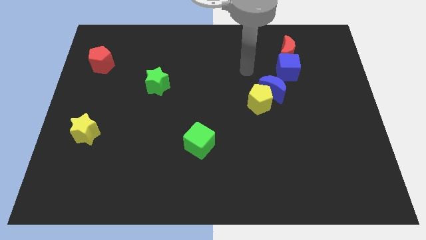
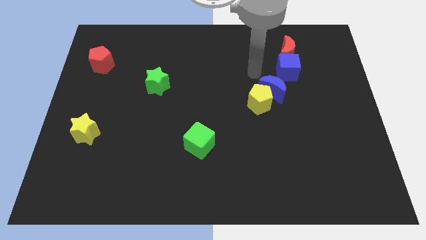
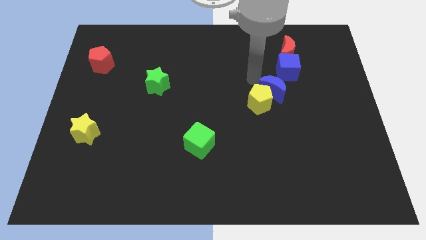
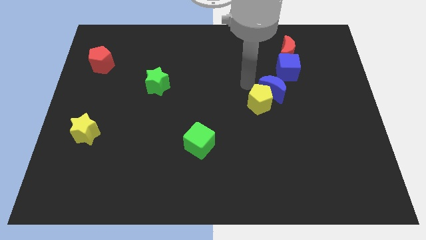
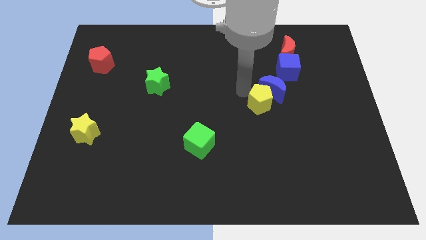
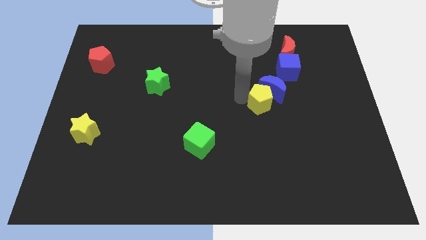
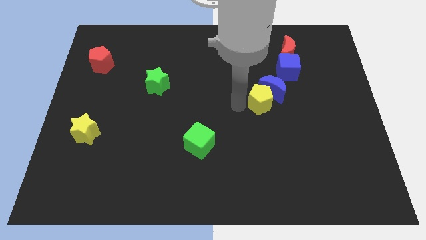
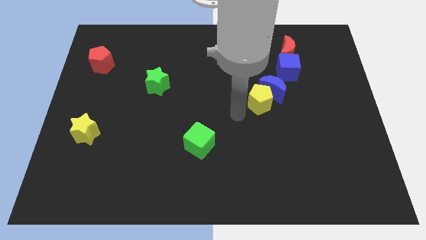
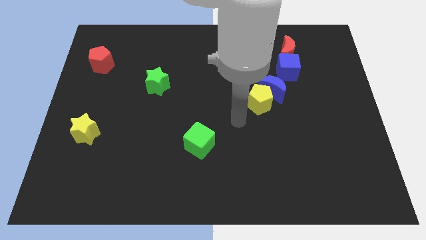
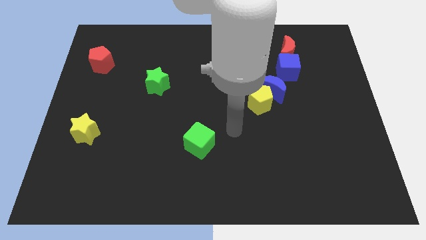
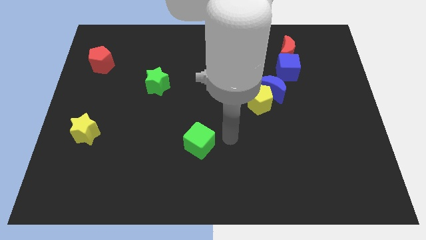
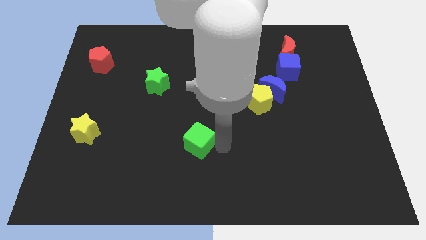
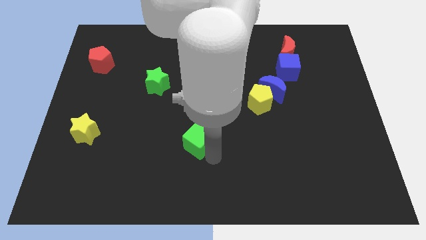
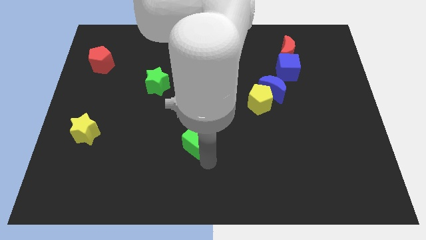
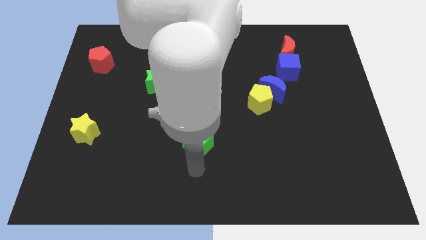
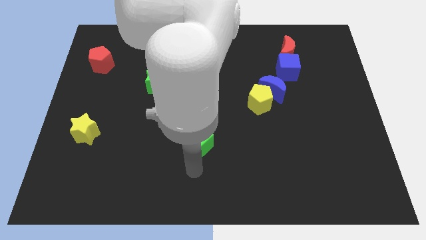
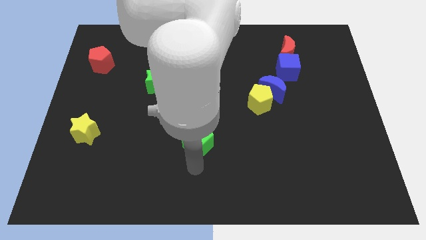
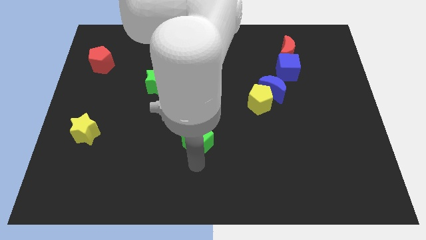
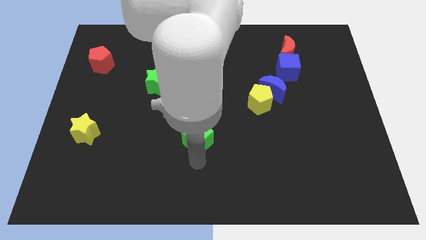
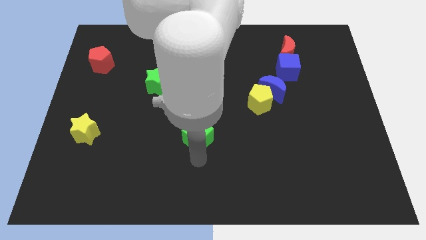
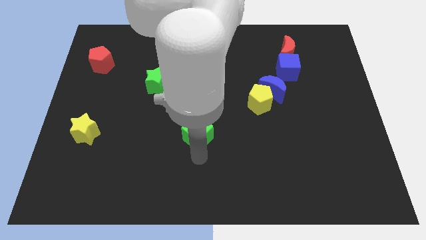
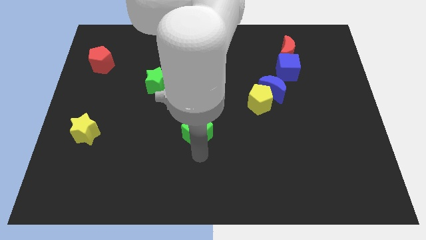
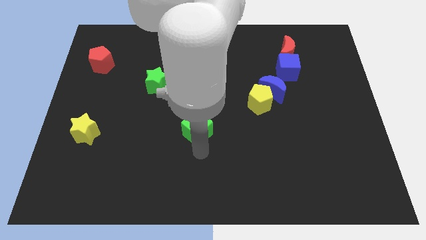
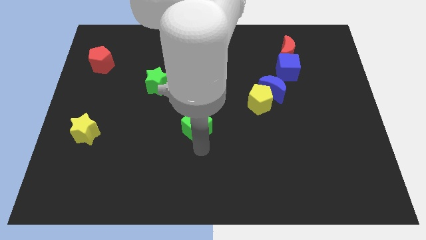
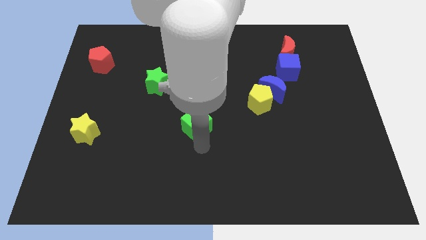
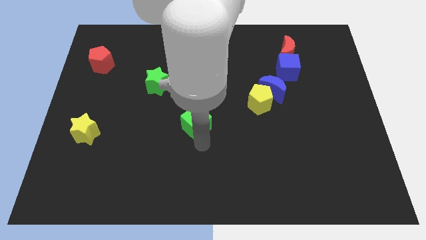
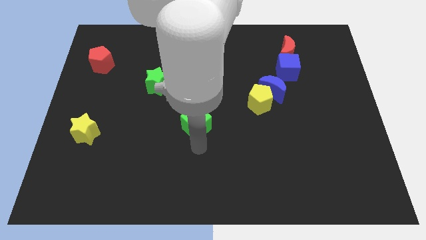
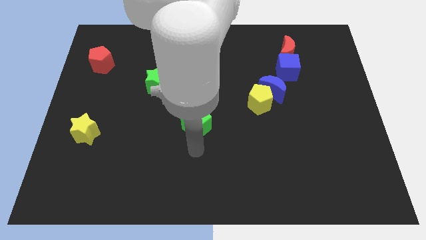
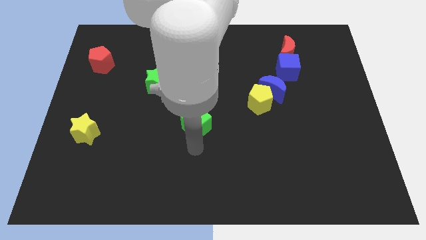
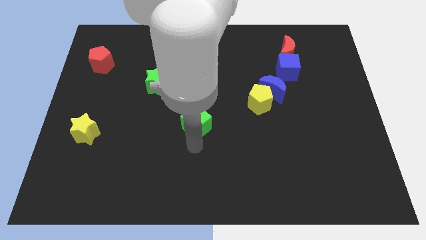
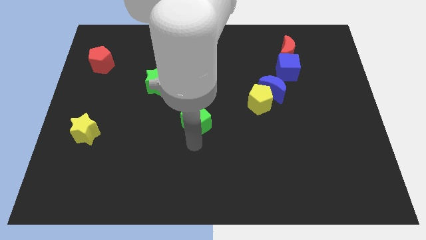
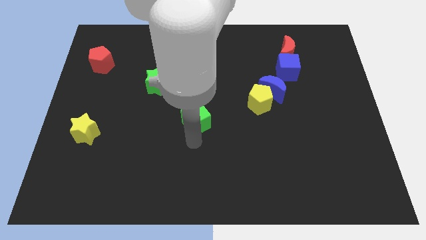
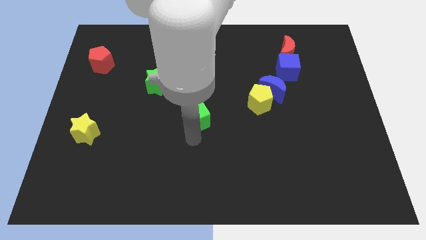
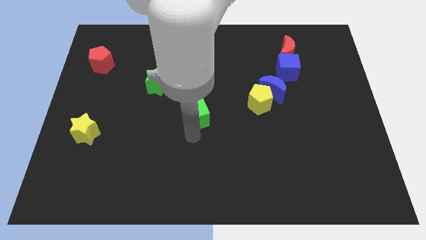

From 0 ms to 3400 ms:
slide the green cube upwards slightly

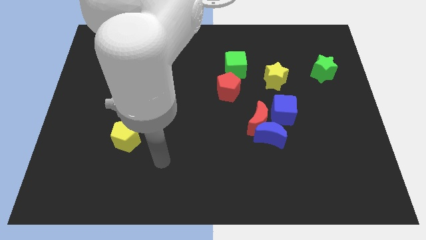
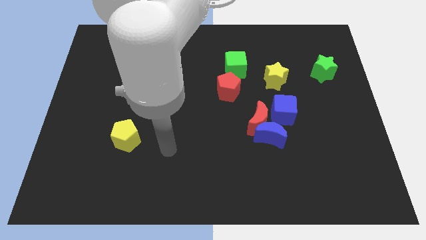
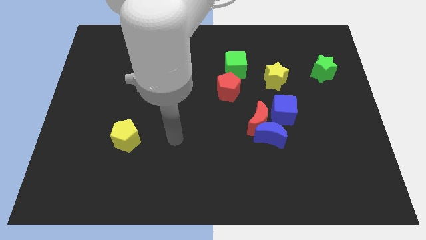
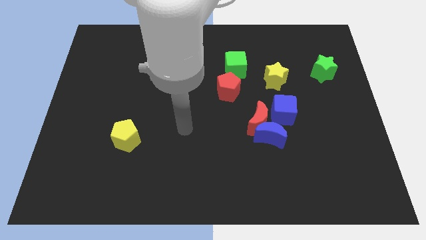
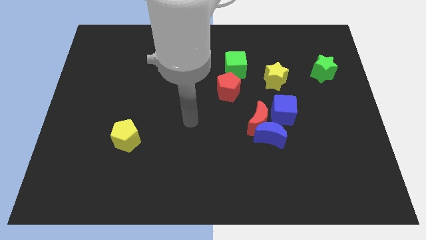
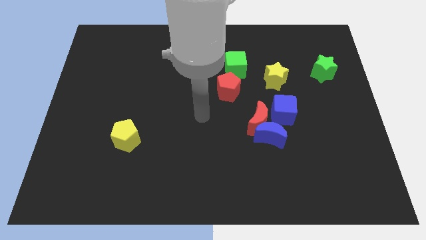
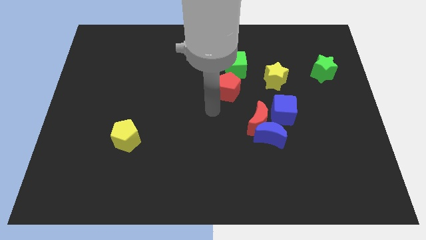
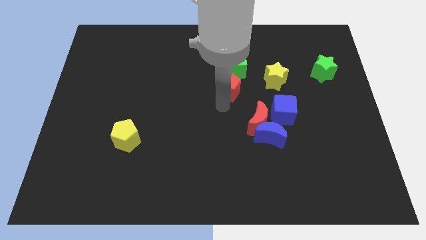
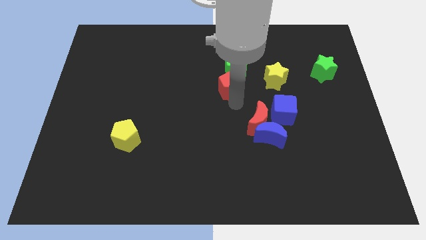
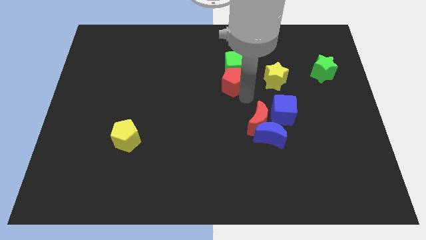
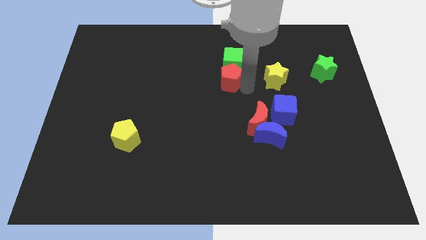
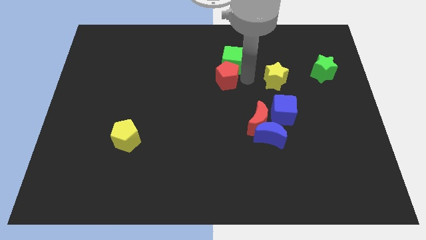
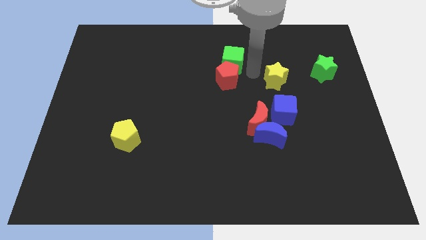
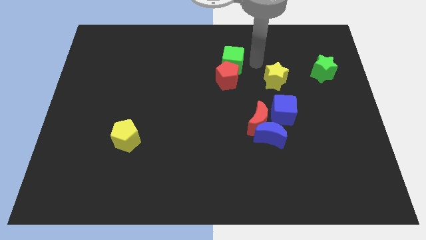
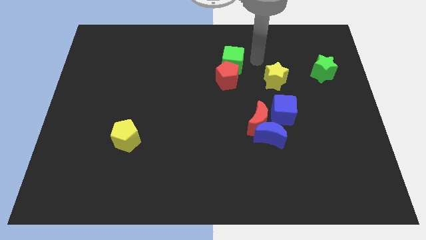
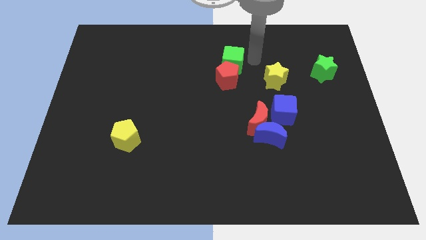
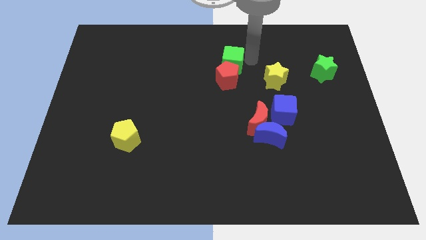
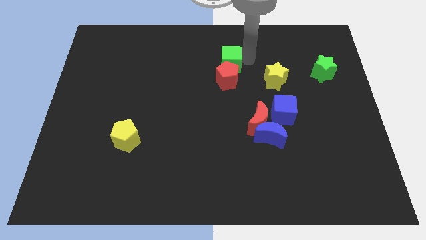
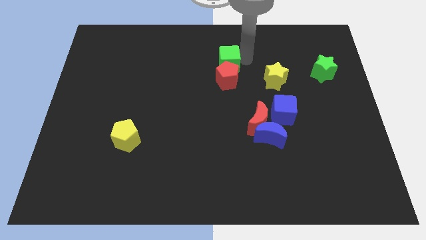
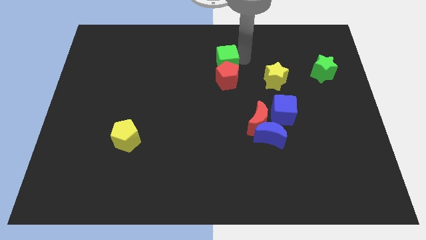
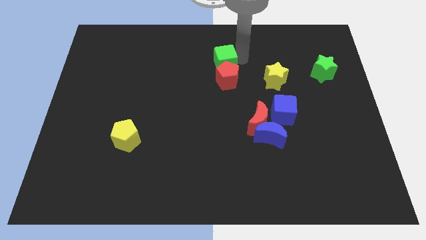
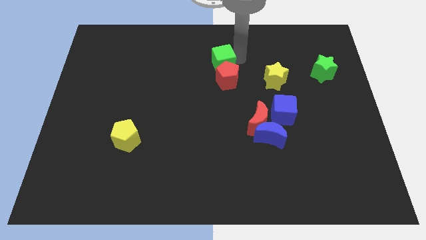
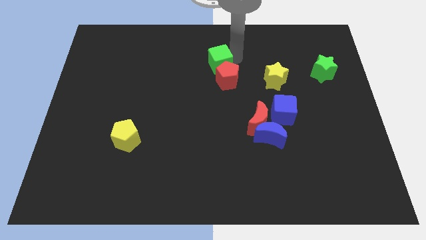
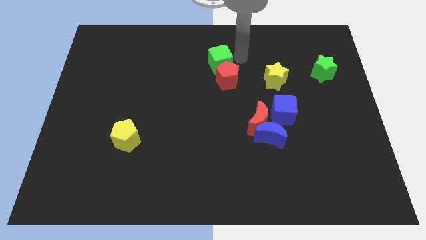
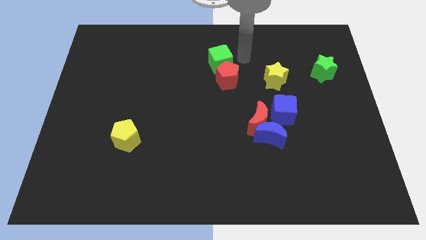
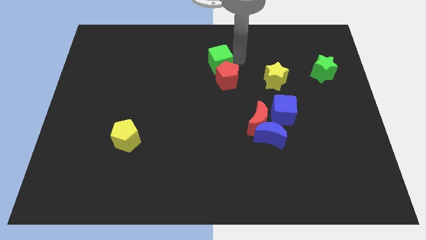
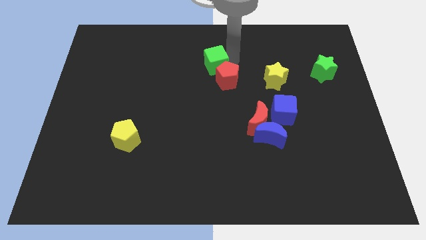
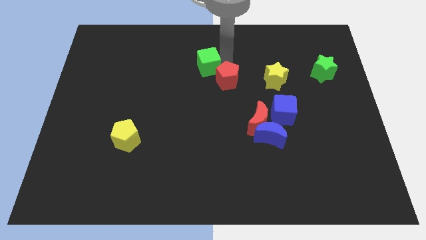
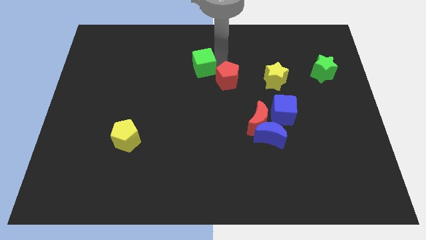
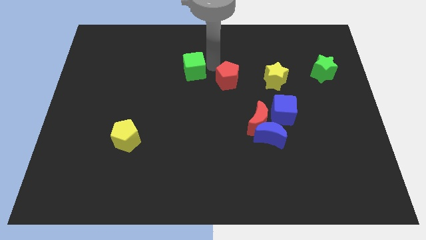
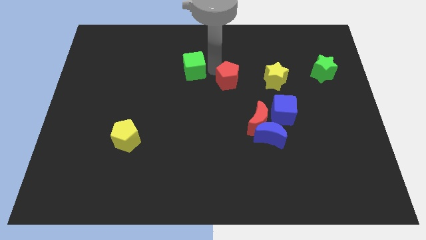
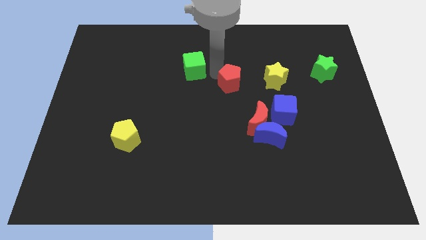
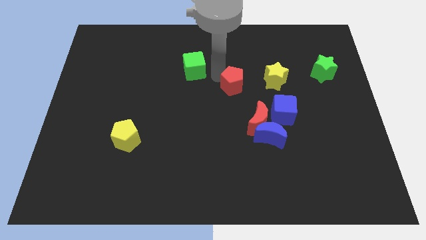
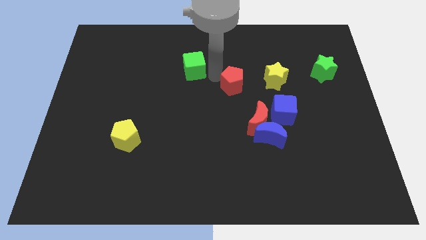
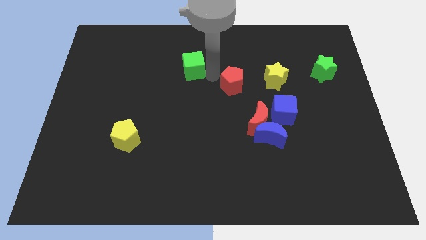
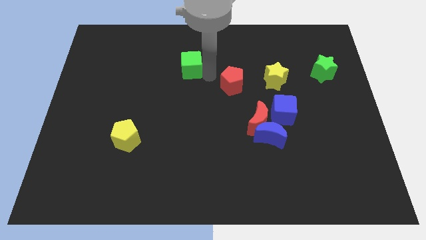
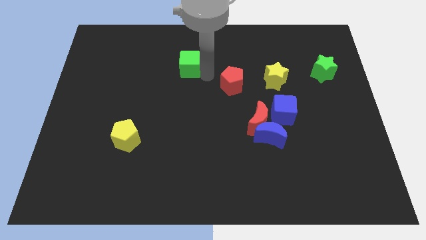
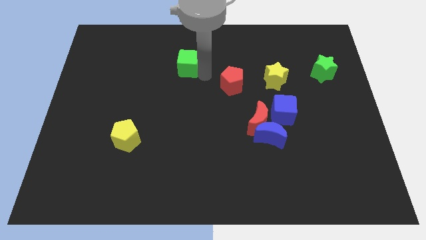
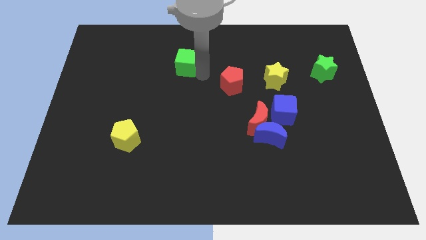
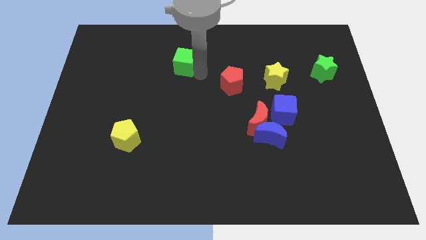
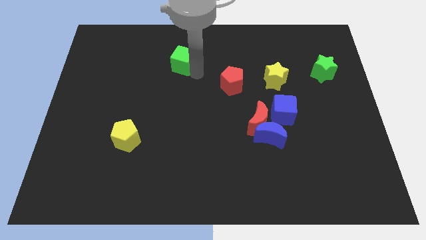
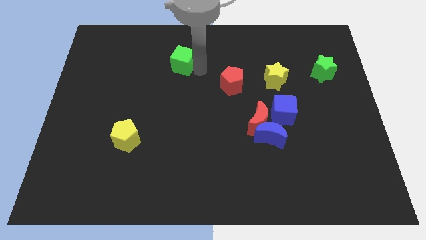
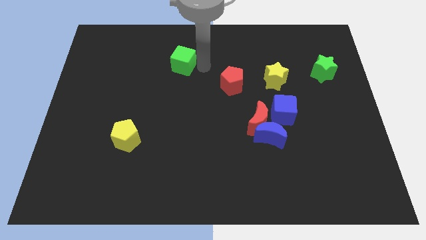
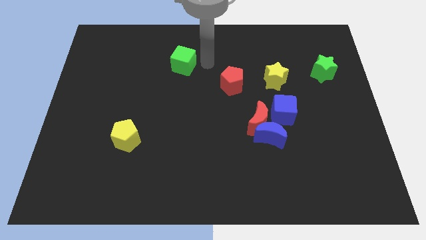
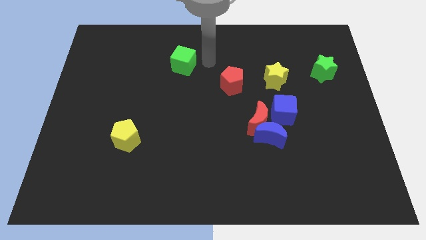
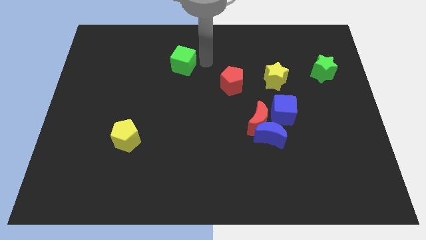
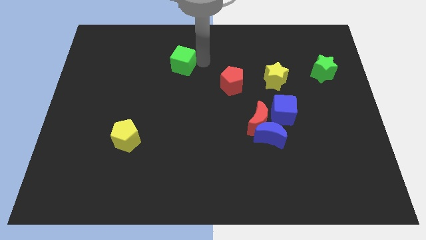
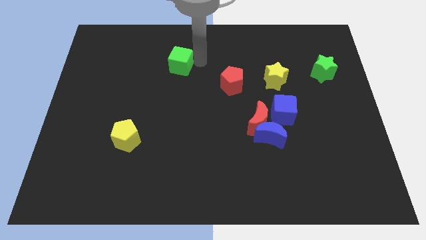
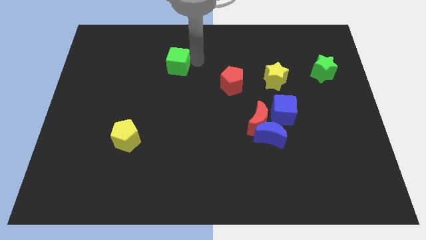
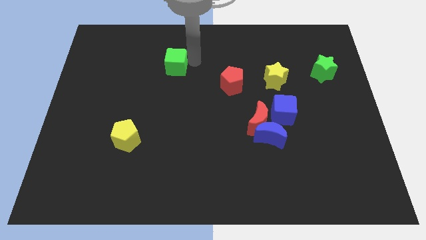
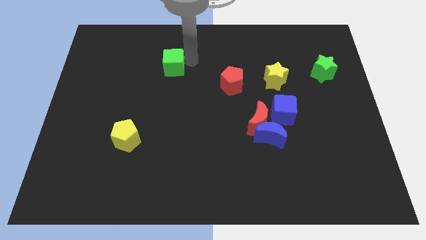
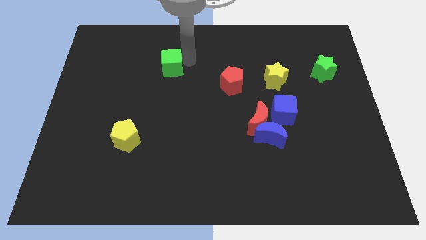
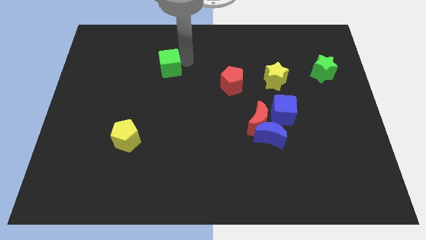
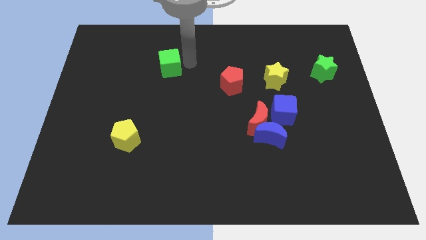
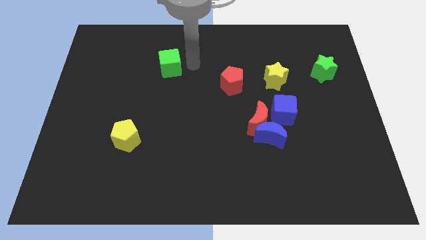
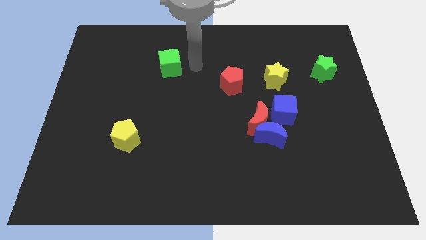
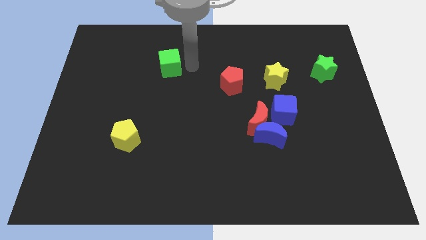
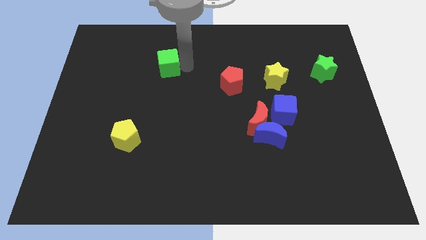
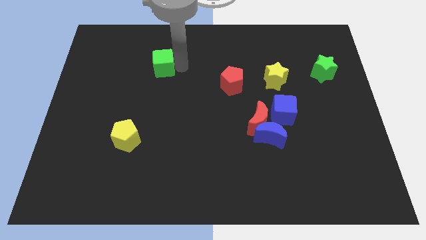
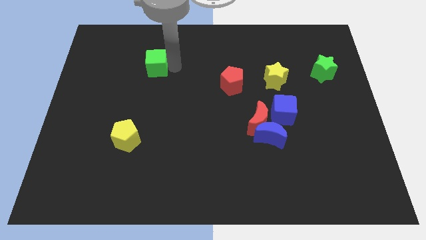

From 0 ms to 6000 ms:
slide the green cube left
